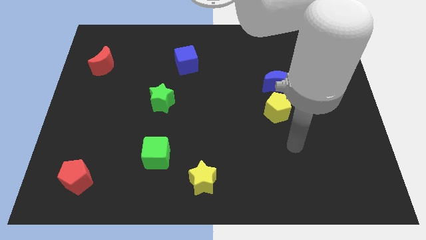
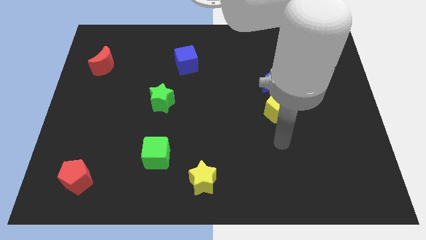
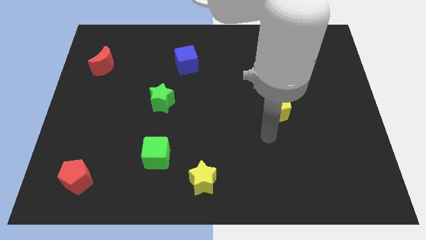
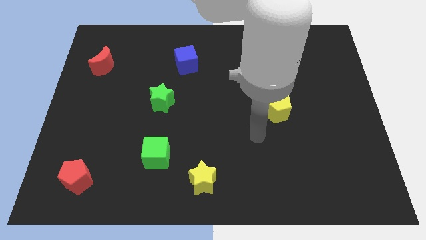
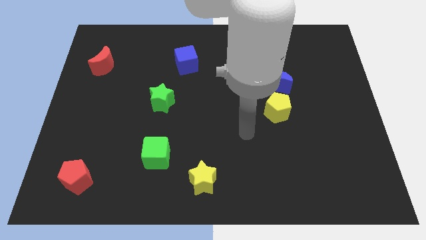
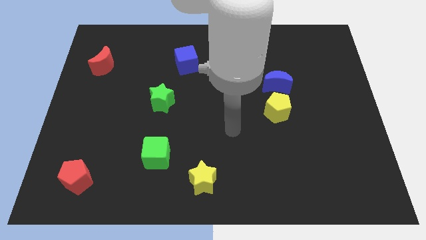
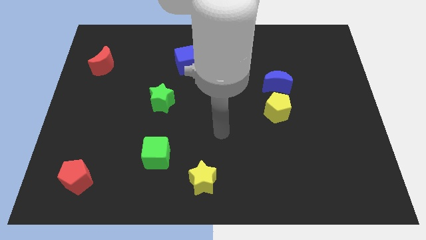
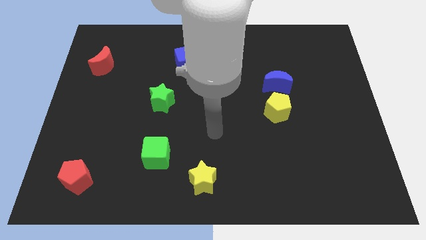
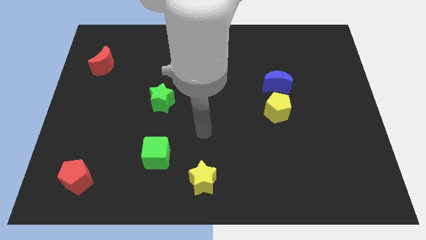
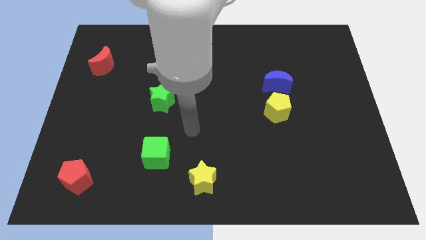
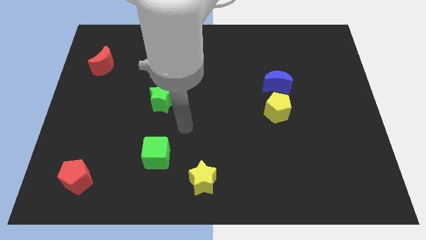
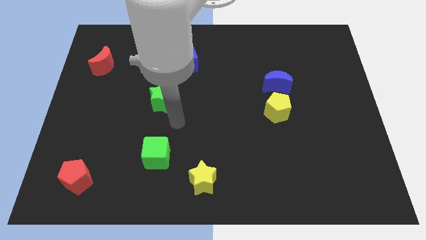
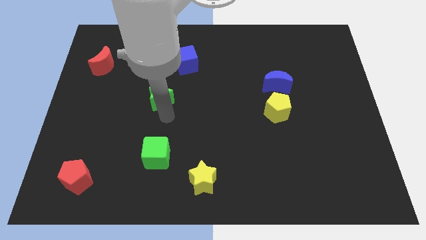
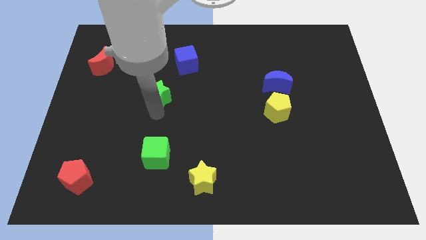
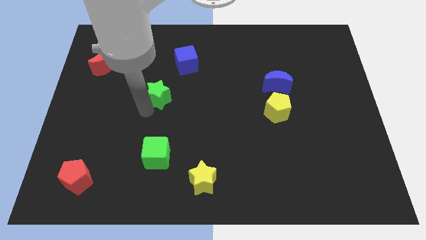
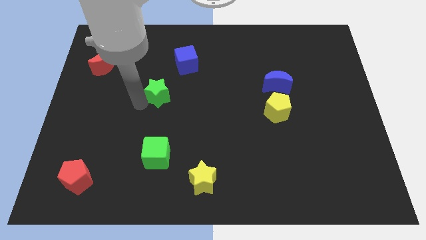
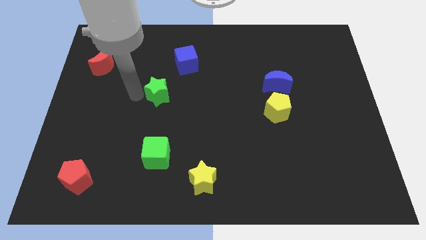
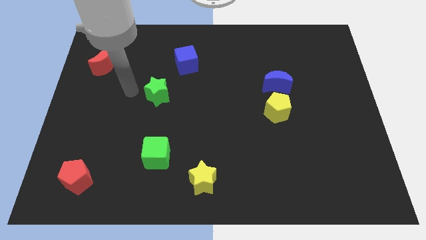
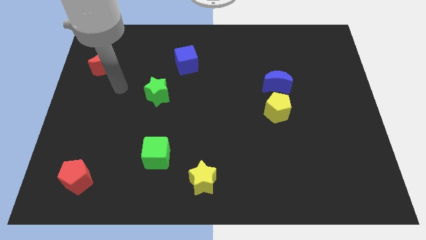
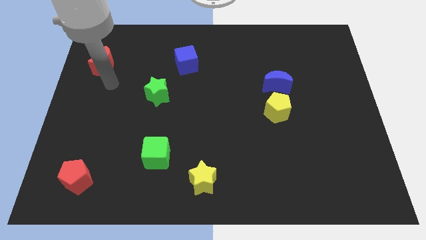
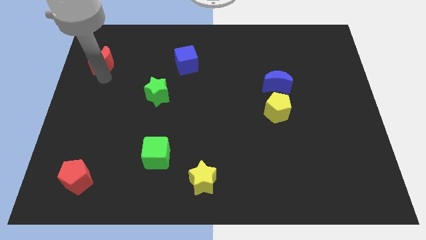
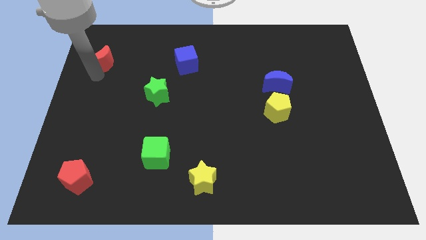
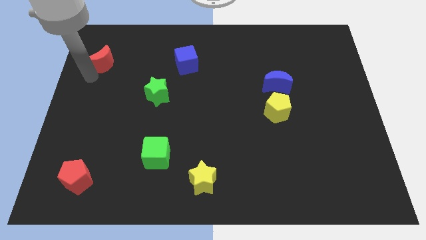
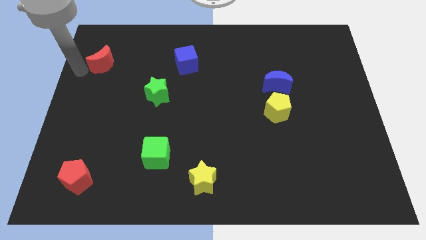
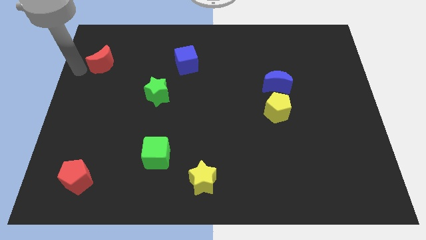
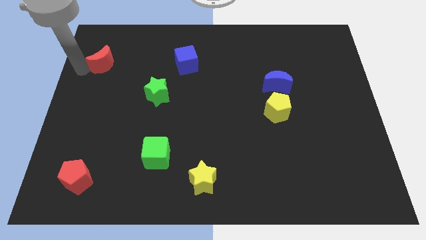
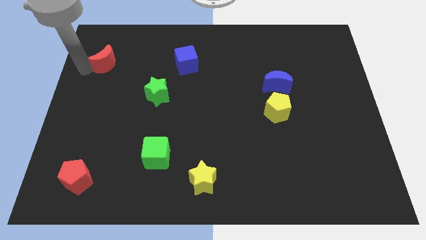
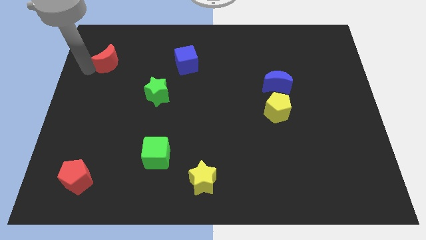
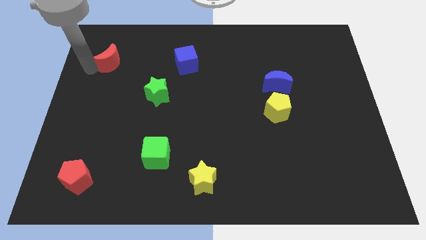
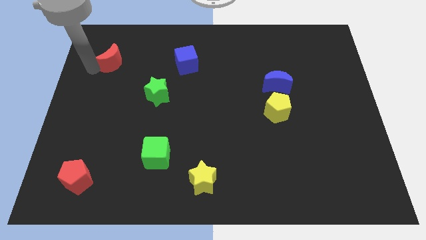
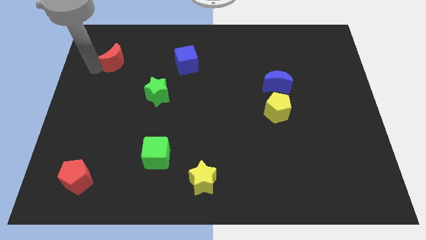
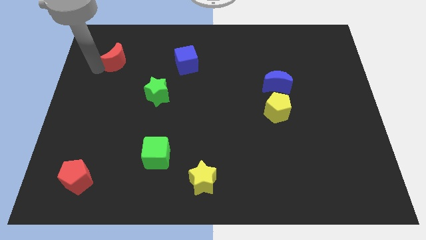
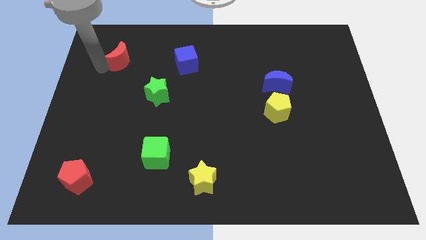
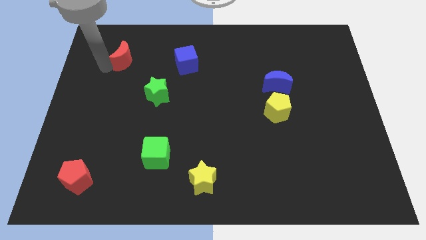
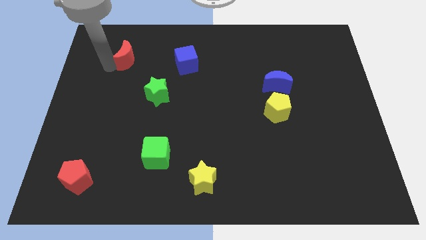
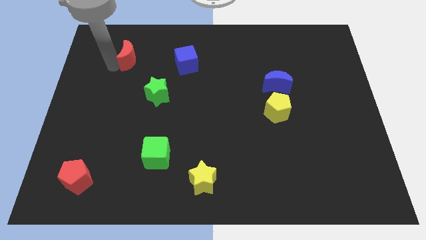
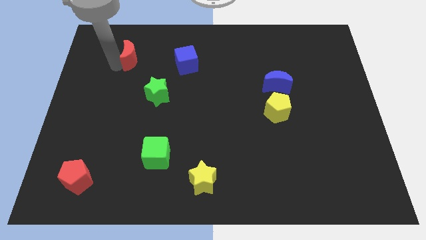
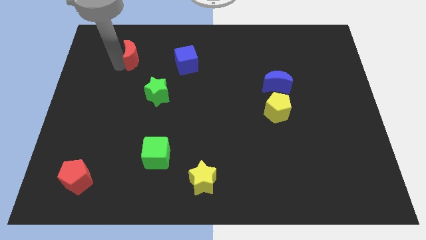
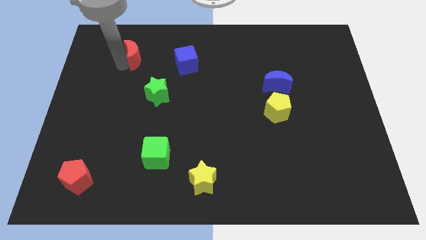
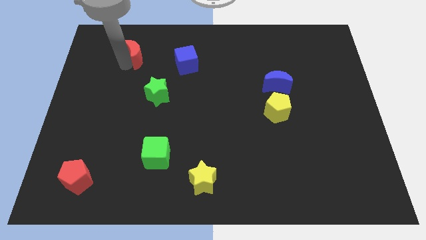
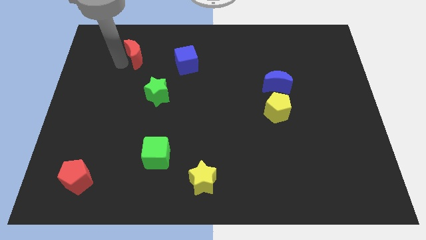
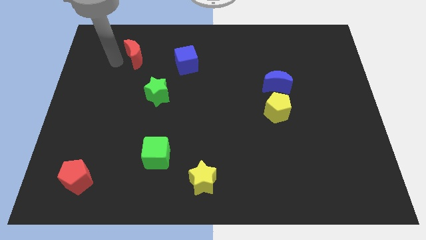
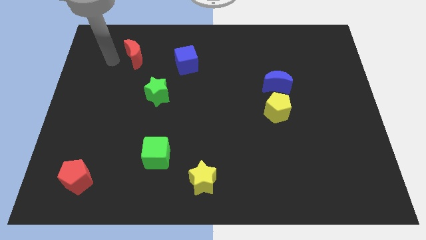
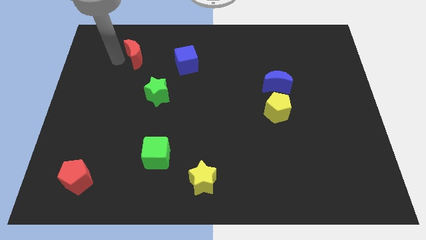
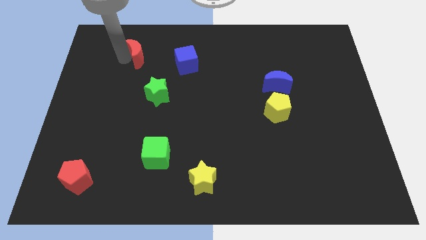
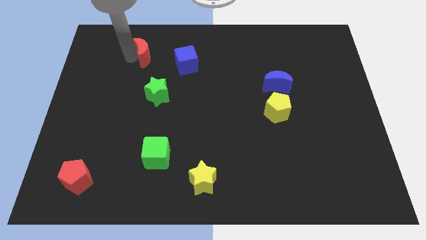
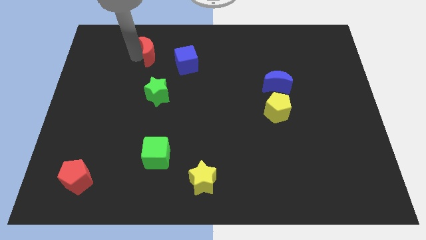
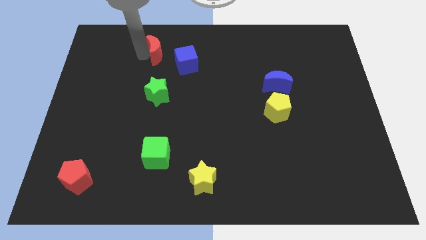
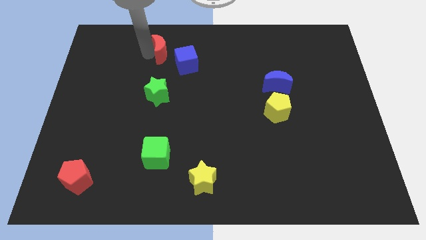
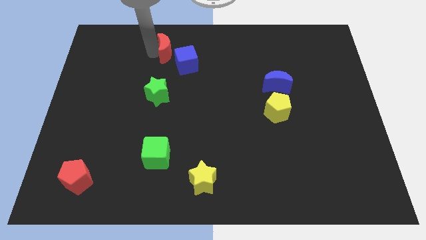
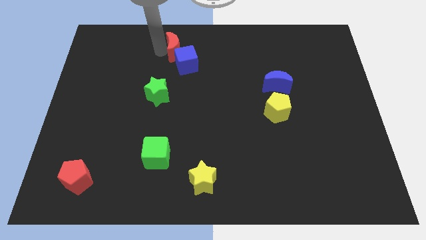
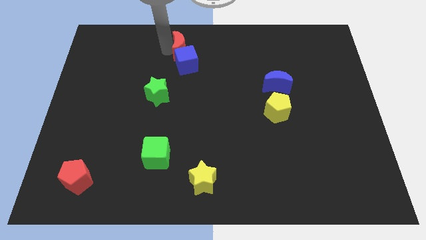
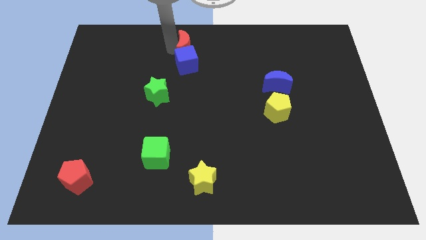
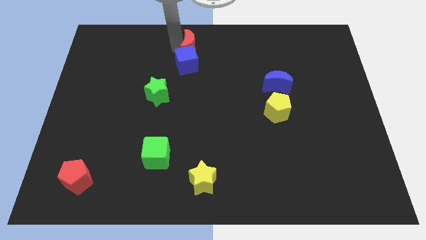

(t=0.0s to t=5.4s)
push the red moon right

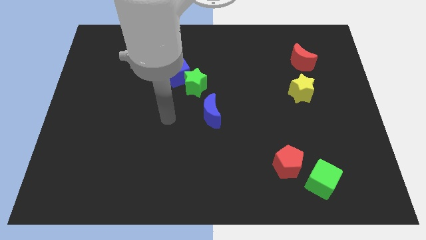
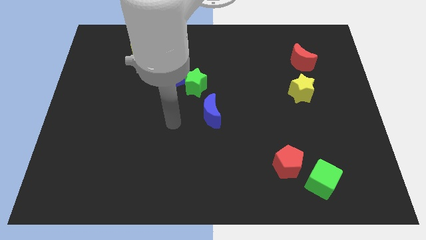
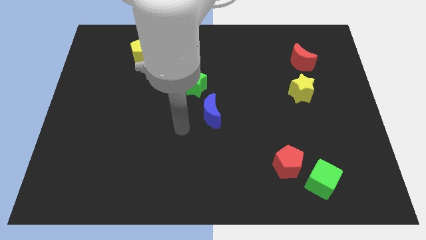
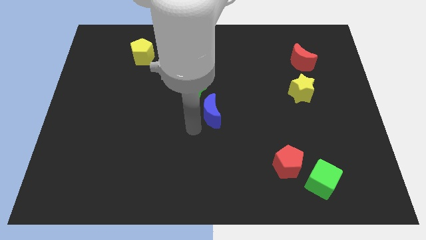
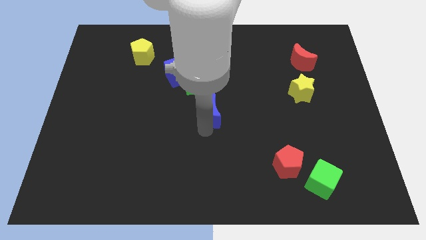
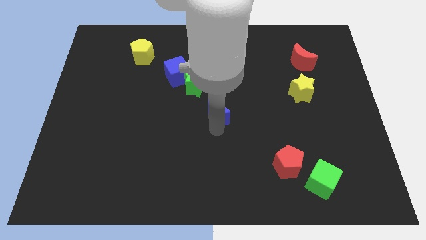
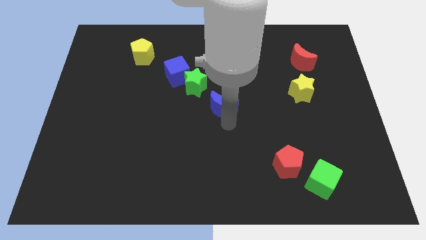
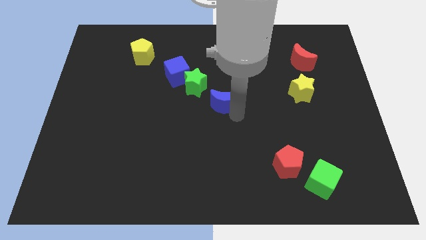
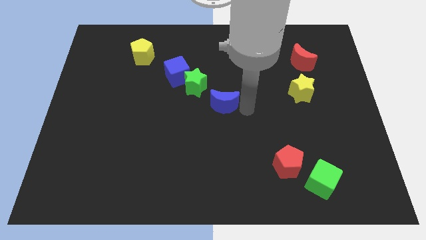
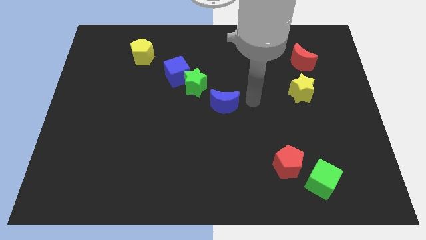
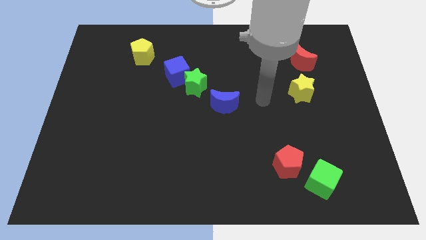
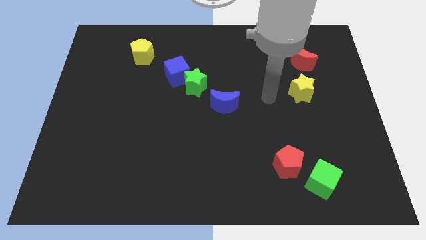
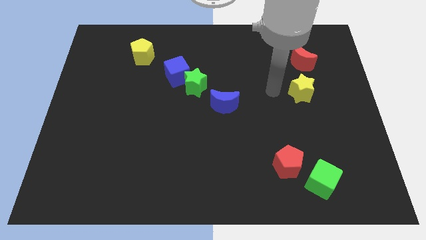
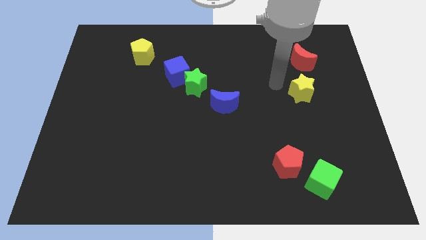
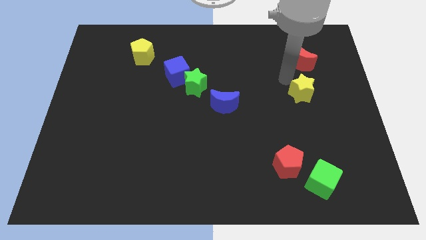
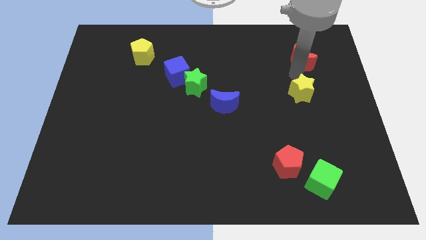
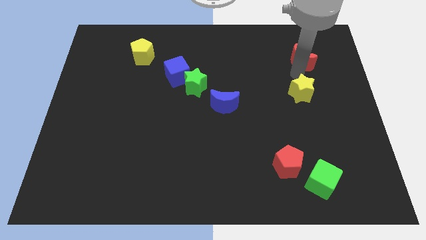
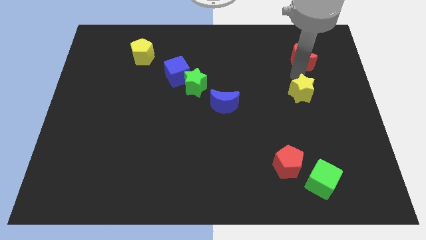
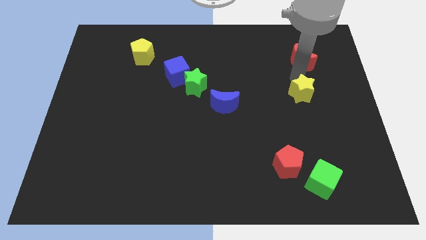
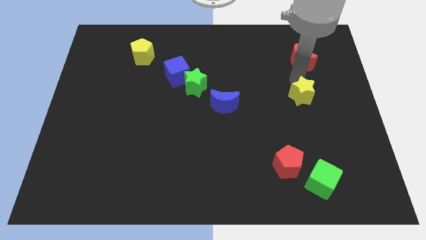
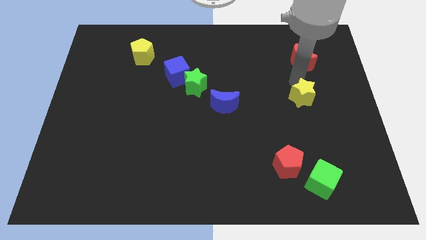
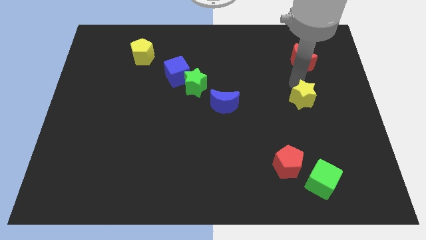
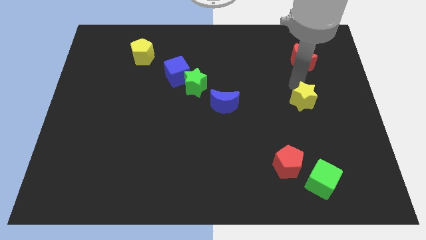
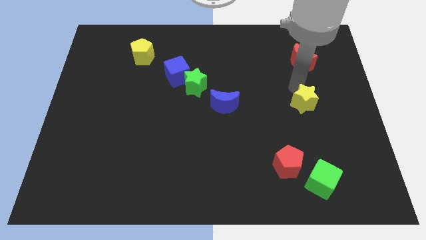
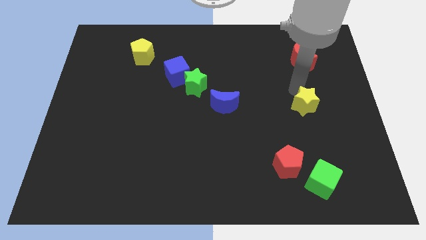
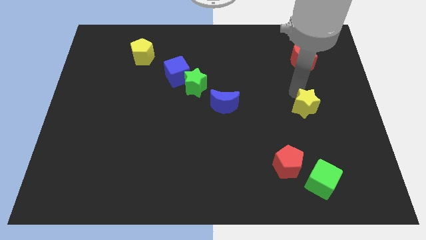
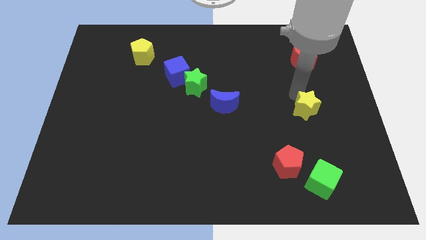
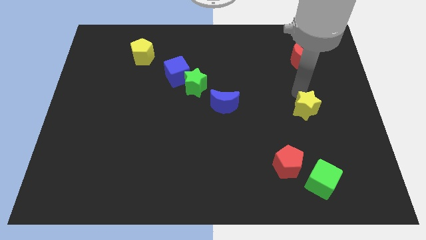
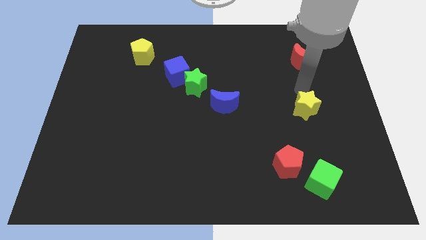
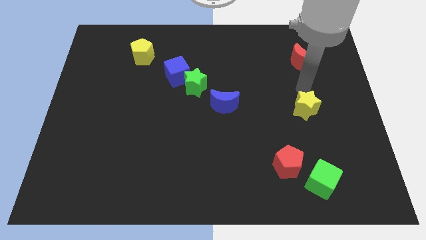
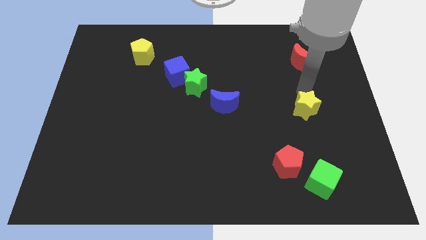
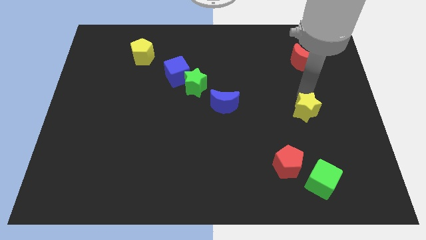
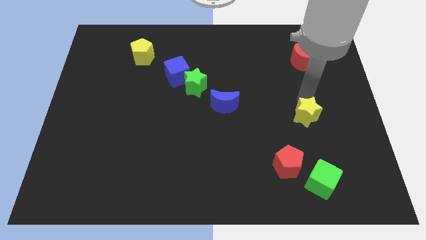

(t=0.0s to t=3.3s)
slide the yellow star down somewhat
